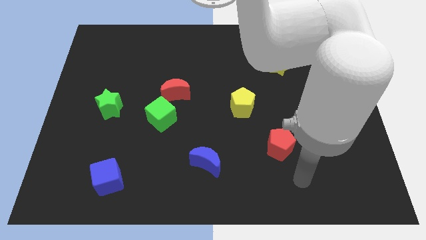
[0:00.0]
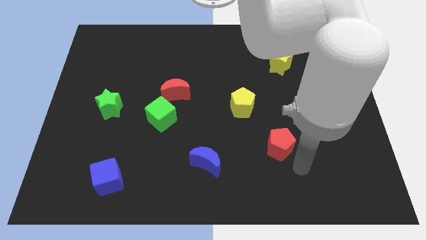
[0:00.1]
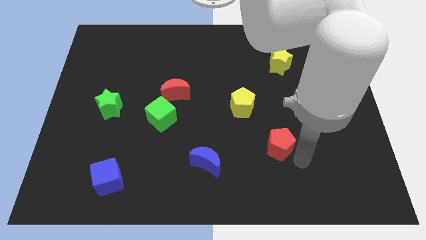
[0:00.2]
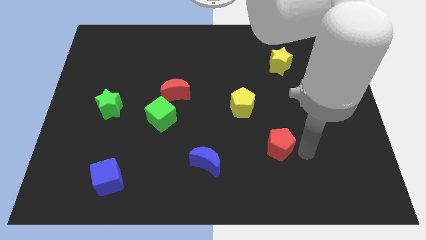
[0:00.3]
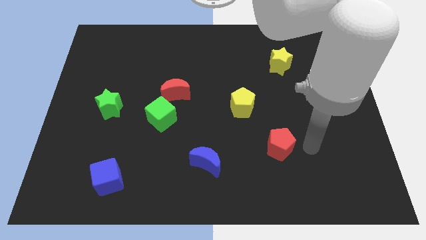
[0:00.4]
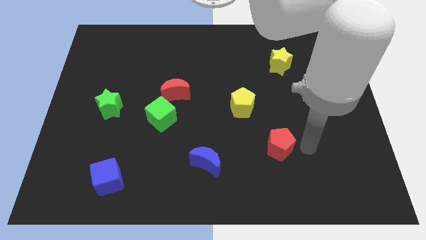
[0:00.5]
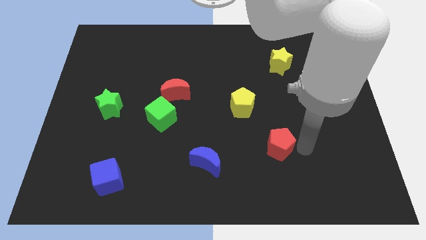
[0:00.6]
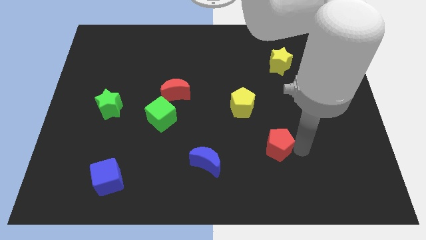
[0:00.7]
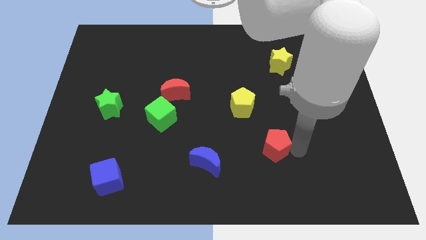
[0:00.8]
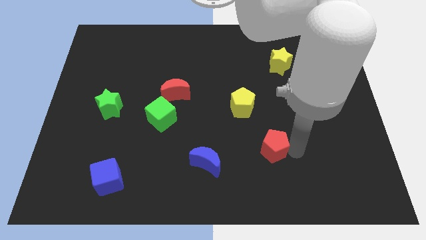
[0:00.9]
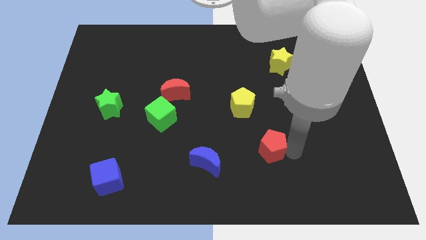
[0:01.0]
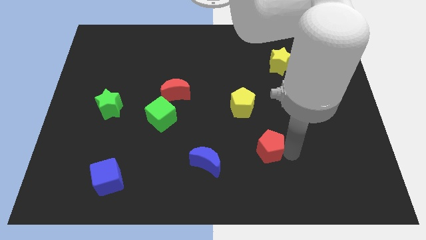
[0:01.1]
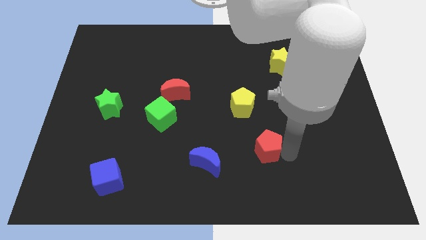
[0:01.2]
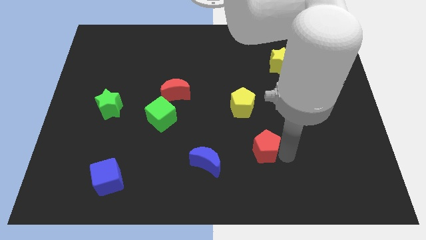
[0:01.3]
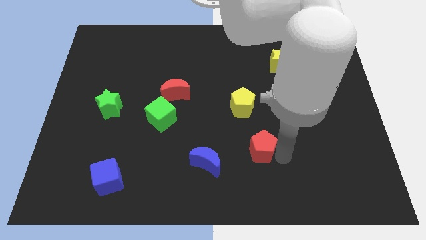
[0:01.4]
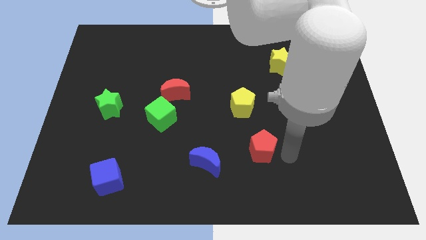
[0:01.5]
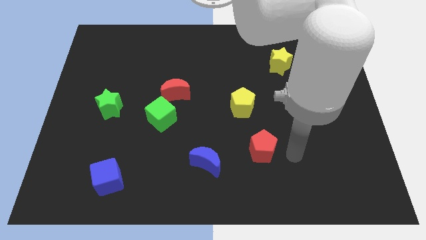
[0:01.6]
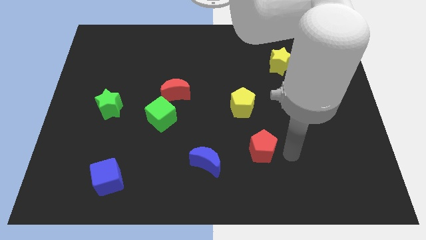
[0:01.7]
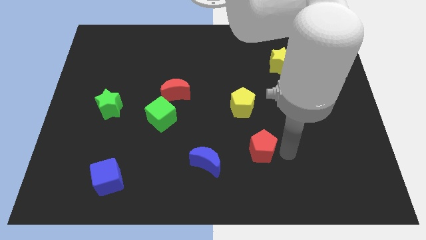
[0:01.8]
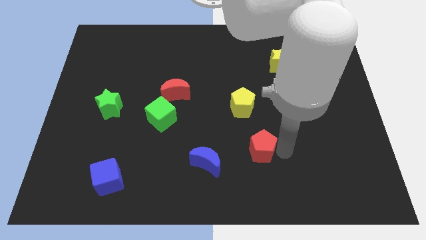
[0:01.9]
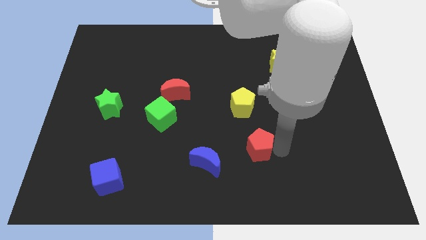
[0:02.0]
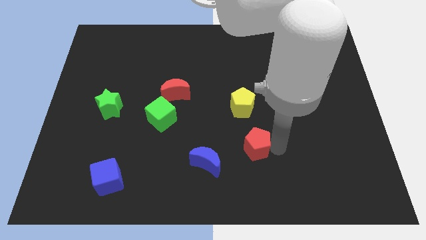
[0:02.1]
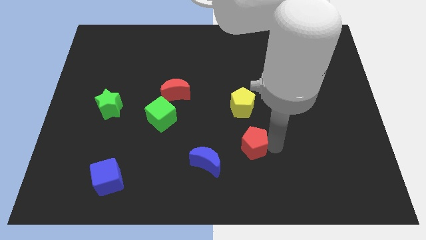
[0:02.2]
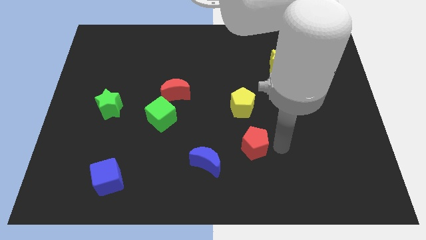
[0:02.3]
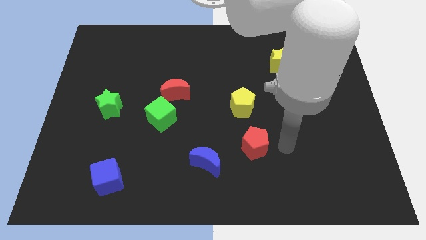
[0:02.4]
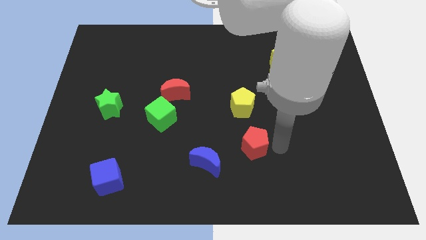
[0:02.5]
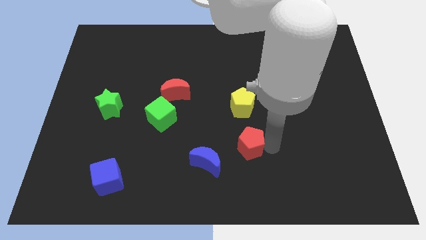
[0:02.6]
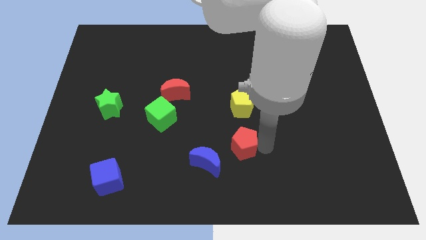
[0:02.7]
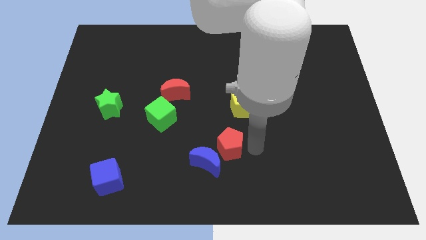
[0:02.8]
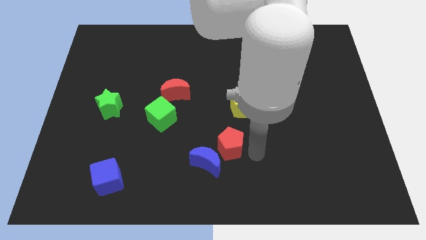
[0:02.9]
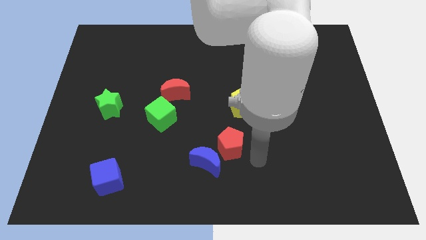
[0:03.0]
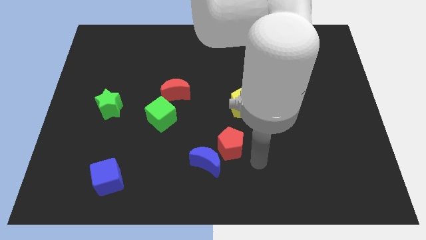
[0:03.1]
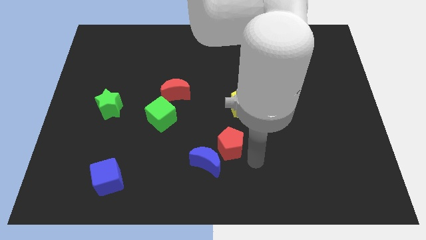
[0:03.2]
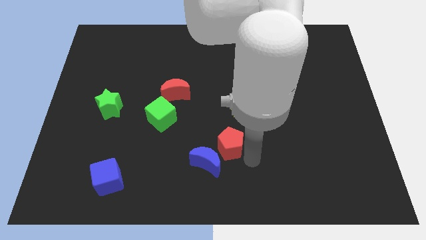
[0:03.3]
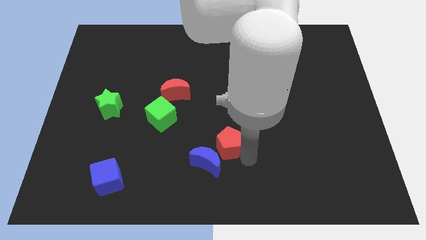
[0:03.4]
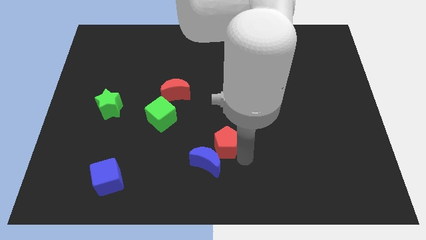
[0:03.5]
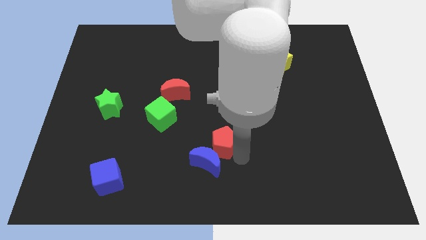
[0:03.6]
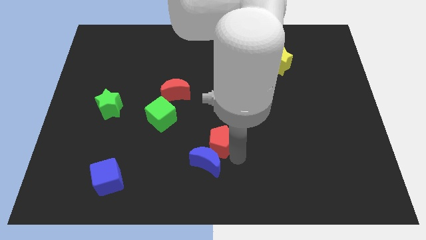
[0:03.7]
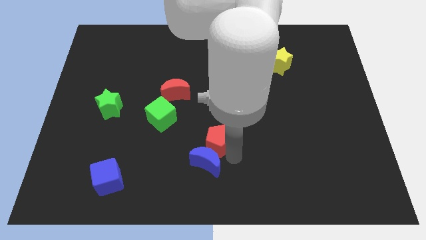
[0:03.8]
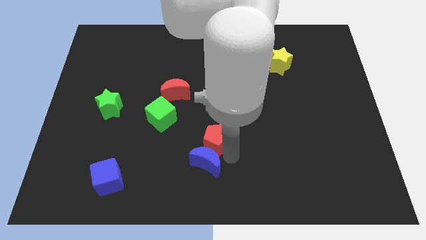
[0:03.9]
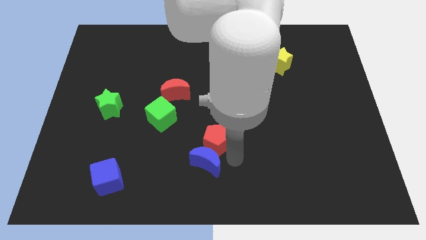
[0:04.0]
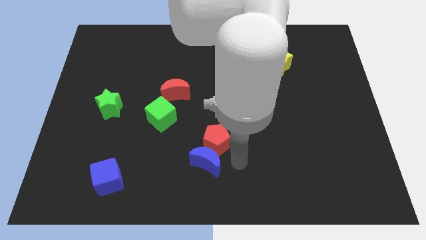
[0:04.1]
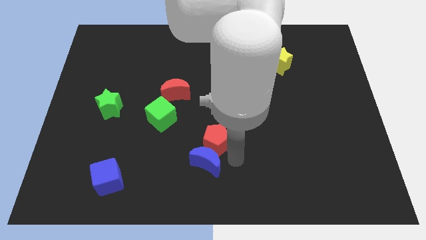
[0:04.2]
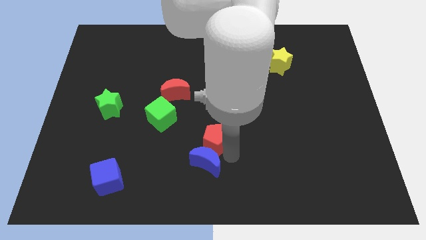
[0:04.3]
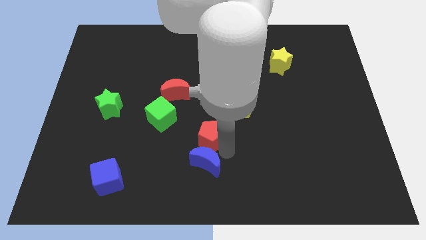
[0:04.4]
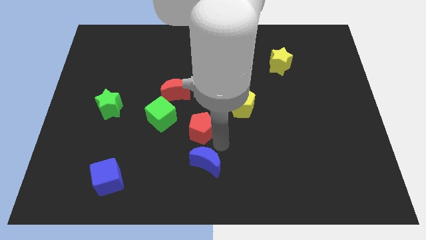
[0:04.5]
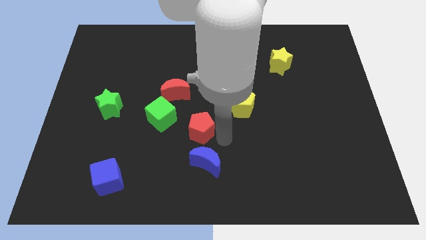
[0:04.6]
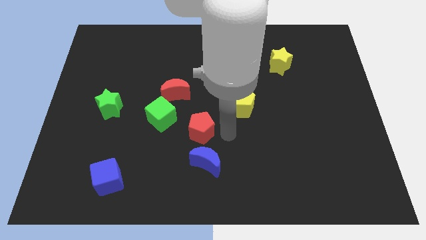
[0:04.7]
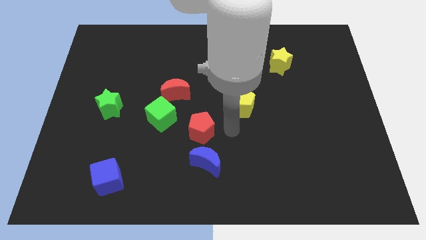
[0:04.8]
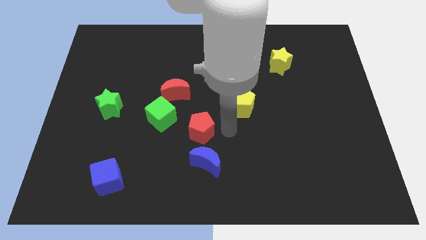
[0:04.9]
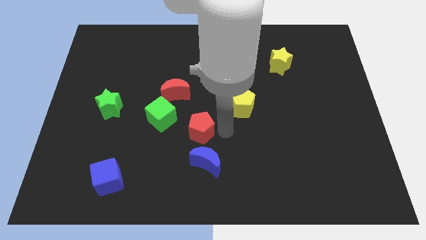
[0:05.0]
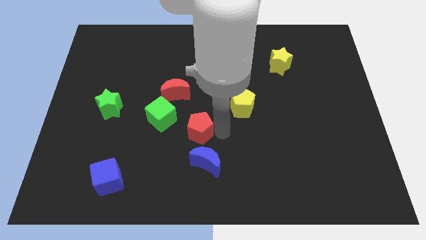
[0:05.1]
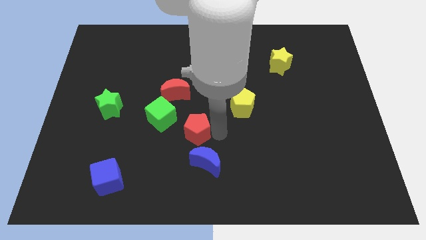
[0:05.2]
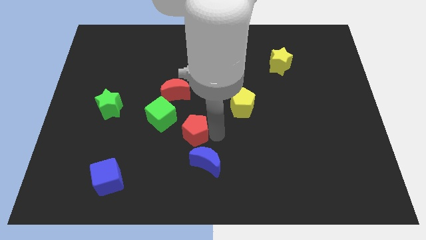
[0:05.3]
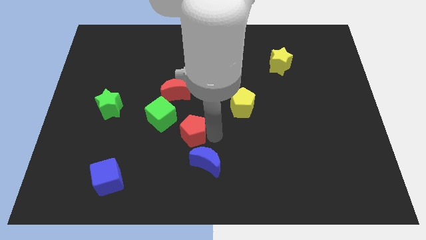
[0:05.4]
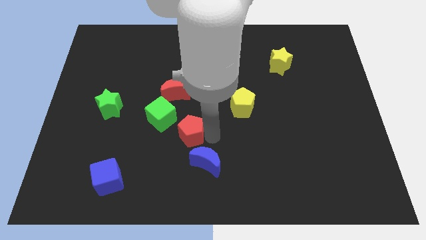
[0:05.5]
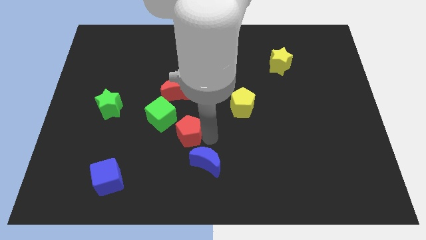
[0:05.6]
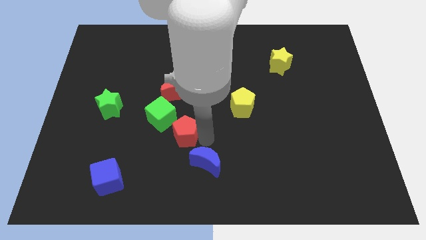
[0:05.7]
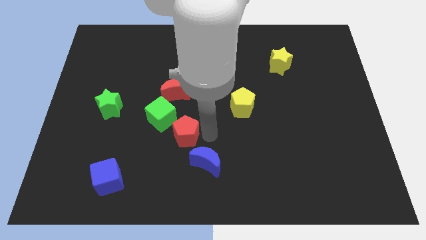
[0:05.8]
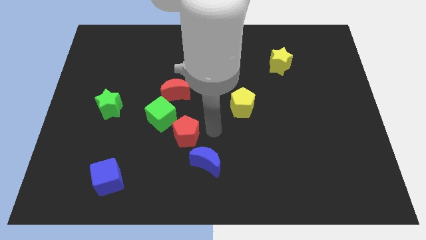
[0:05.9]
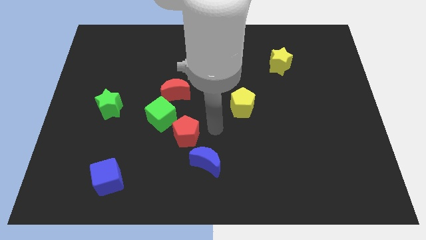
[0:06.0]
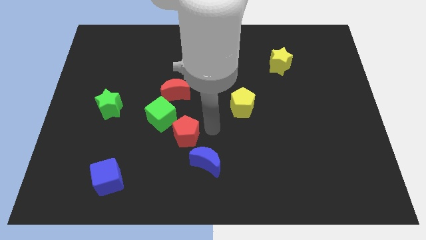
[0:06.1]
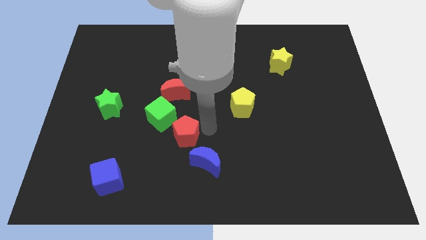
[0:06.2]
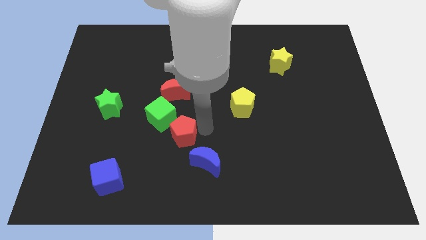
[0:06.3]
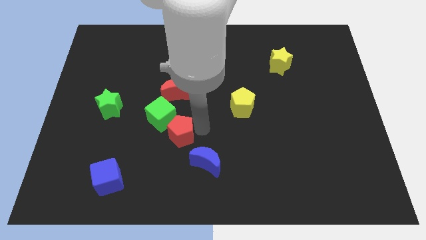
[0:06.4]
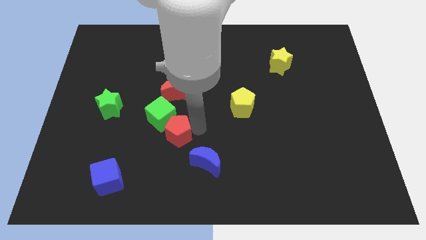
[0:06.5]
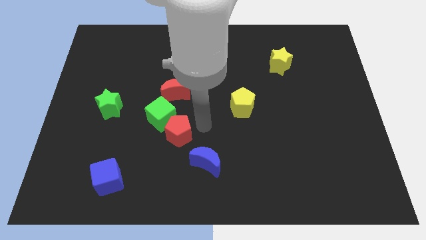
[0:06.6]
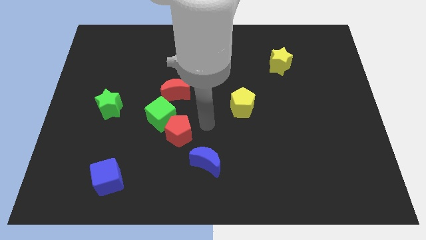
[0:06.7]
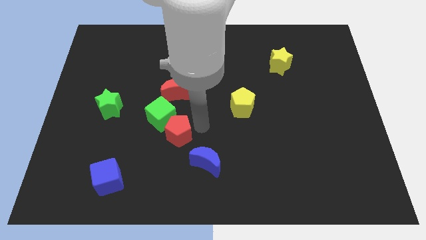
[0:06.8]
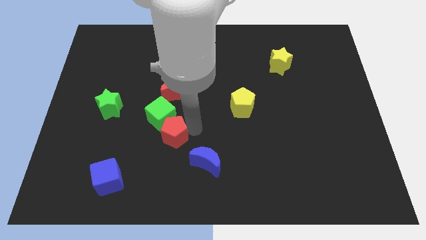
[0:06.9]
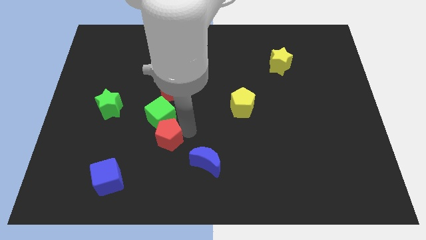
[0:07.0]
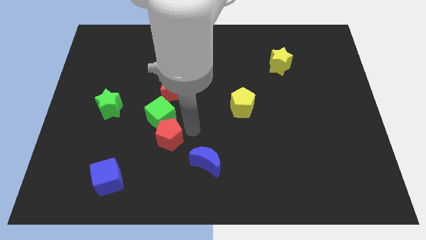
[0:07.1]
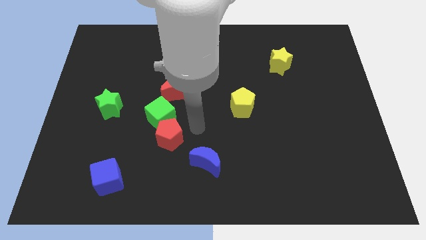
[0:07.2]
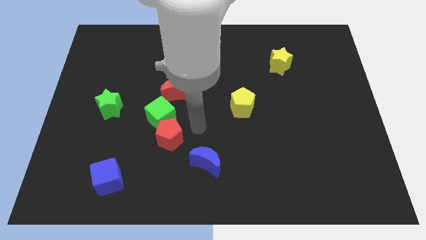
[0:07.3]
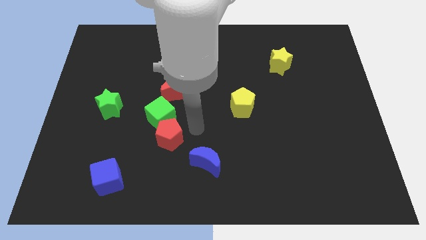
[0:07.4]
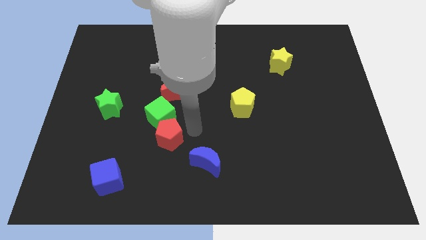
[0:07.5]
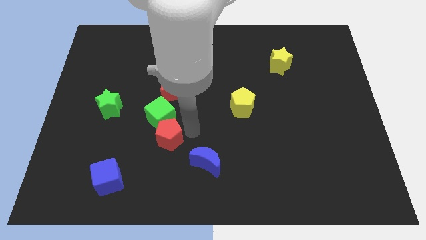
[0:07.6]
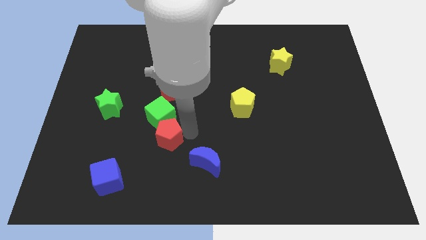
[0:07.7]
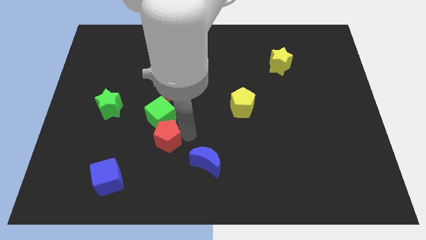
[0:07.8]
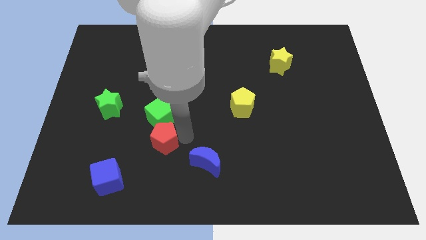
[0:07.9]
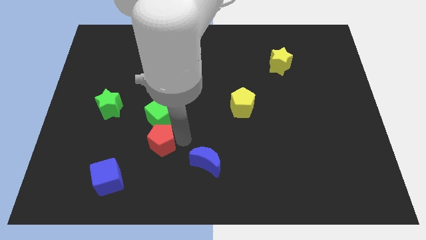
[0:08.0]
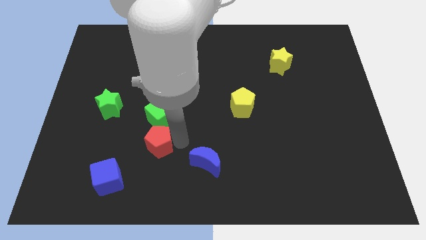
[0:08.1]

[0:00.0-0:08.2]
slide the red pentagon to the top right side of the blue cube
